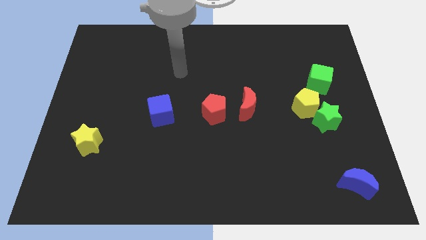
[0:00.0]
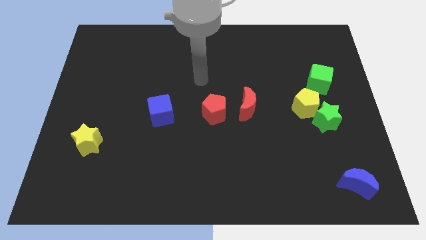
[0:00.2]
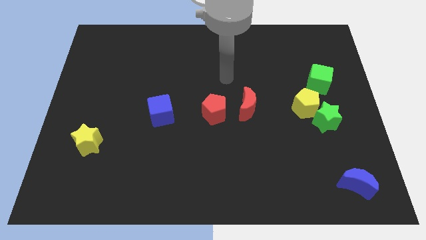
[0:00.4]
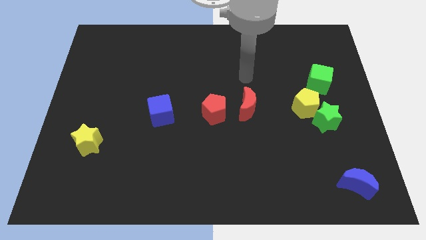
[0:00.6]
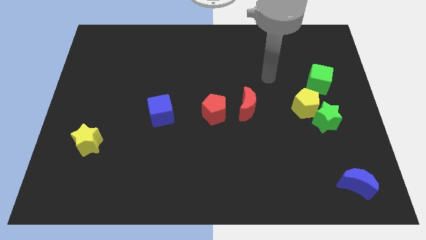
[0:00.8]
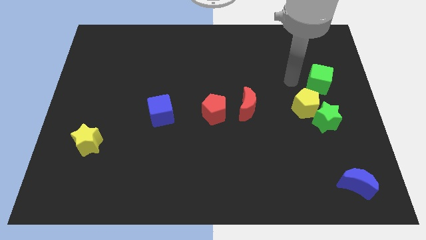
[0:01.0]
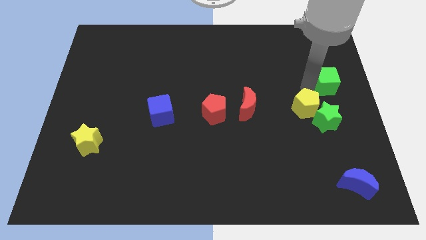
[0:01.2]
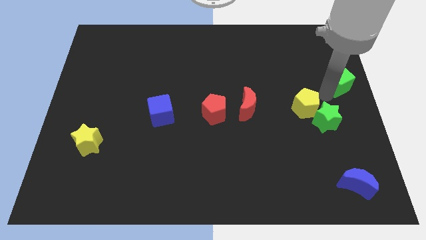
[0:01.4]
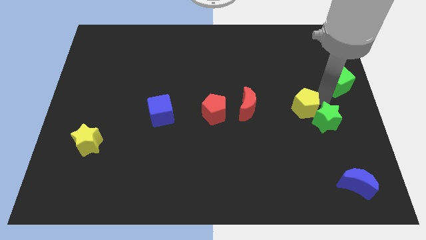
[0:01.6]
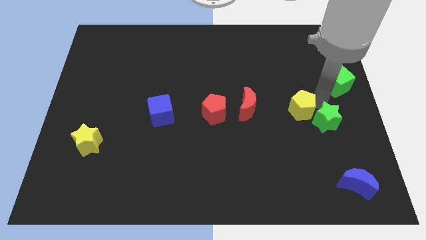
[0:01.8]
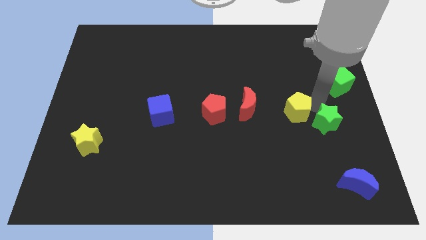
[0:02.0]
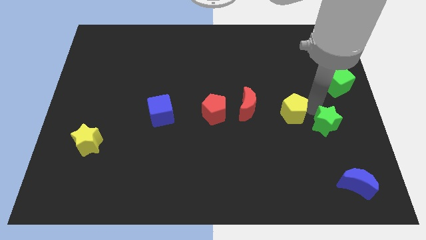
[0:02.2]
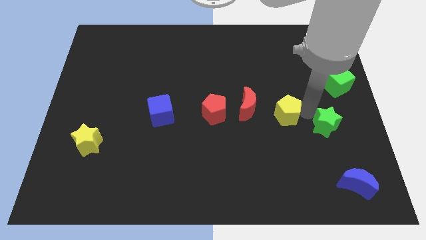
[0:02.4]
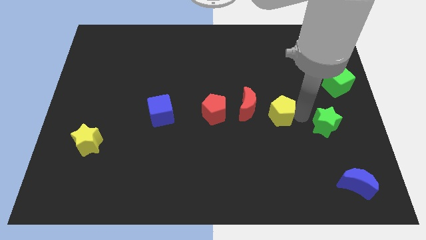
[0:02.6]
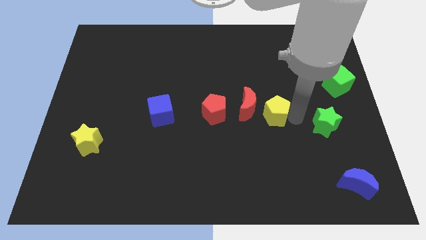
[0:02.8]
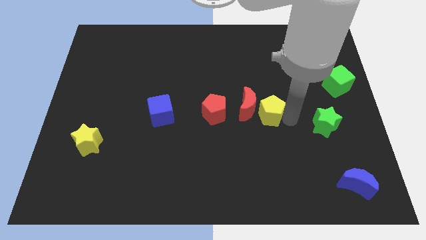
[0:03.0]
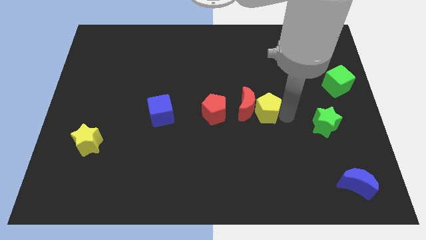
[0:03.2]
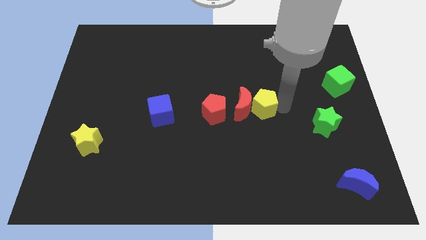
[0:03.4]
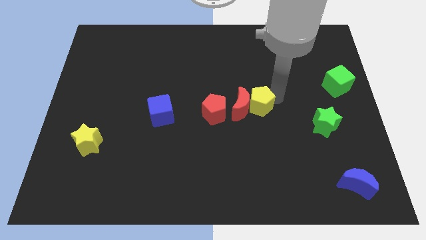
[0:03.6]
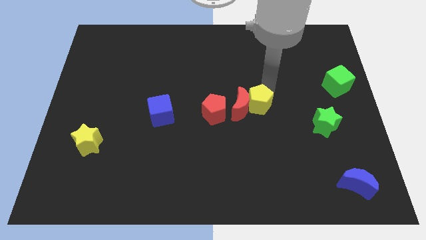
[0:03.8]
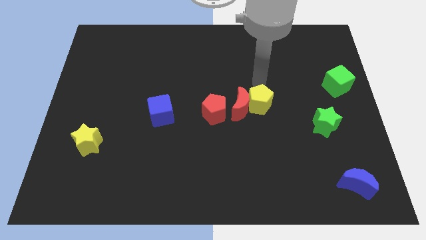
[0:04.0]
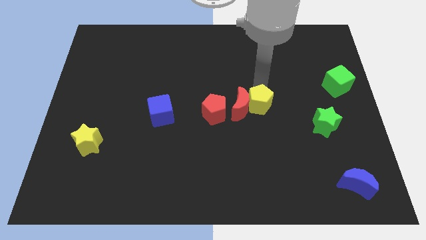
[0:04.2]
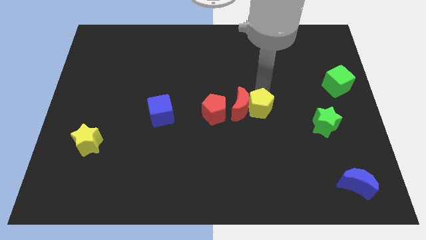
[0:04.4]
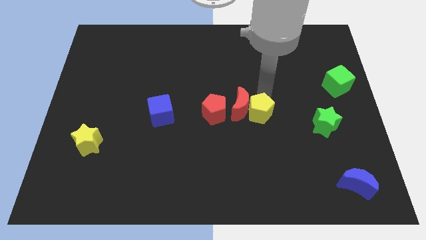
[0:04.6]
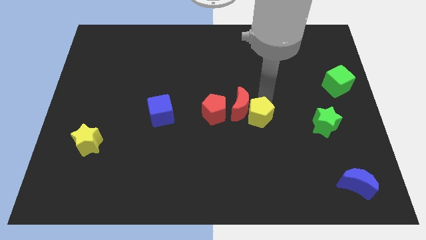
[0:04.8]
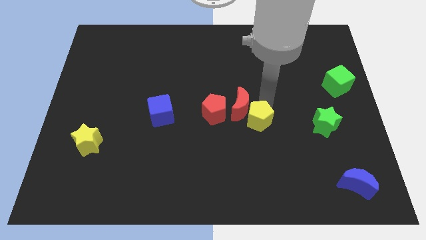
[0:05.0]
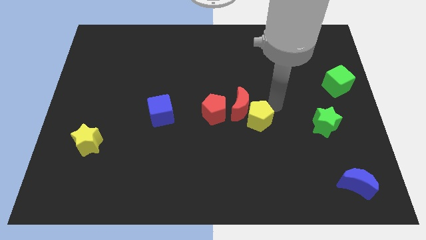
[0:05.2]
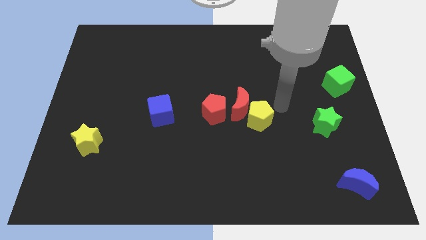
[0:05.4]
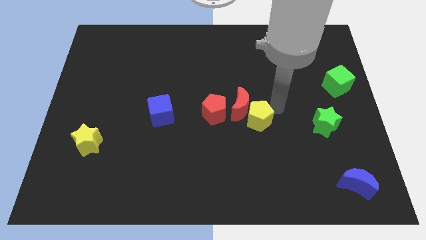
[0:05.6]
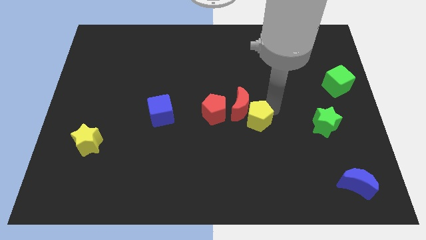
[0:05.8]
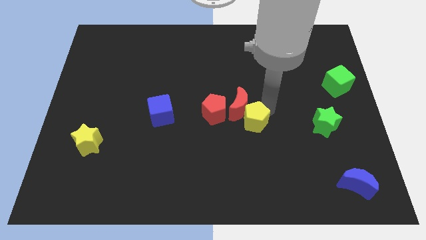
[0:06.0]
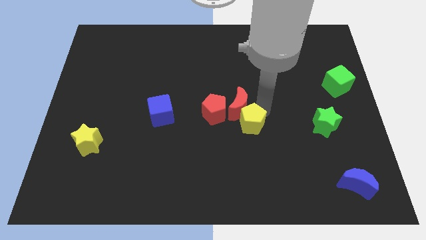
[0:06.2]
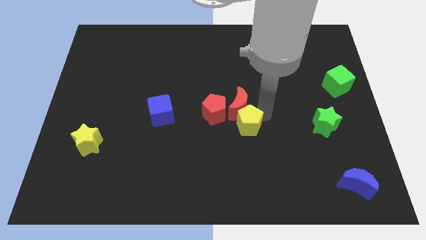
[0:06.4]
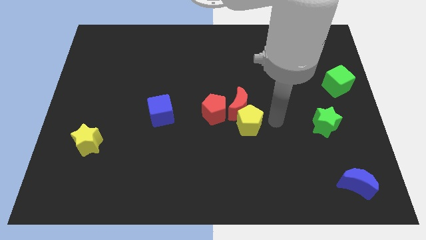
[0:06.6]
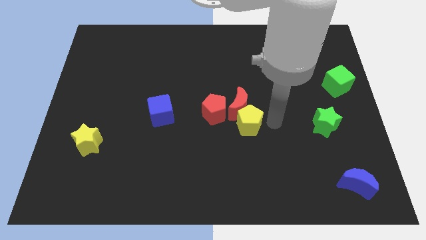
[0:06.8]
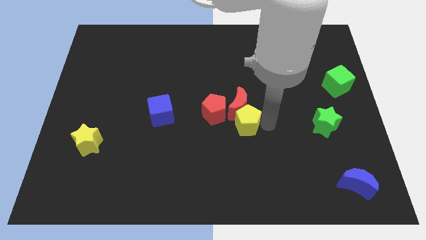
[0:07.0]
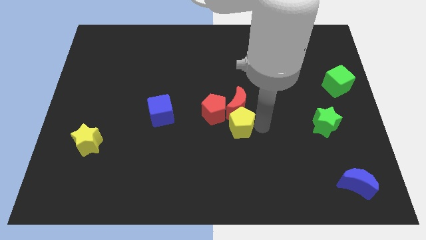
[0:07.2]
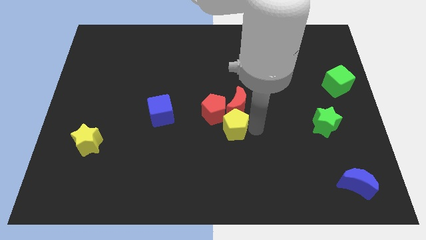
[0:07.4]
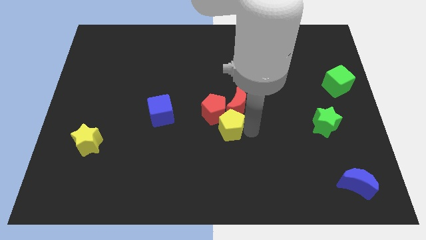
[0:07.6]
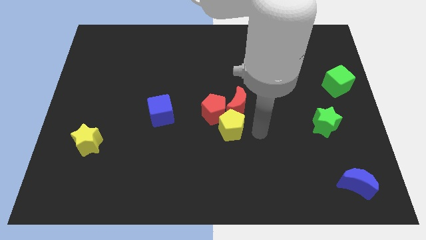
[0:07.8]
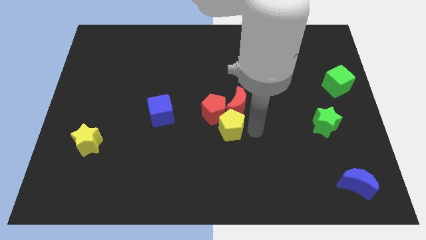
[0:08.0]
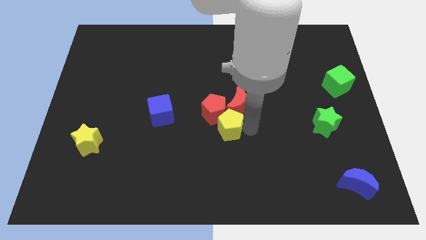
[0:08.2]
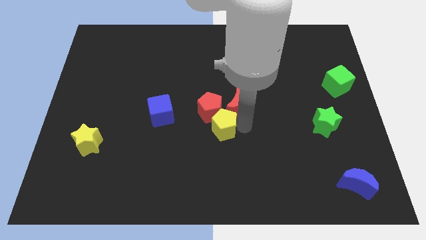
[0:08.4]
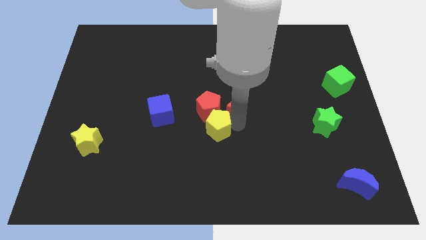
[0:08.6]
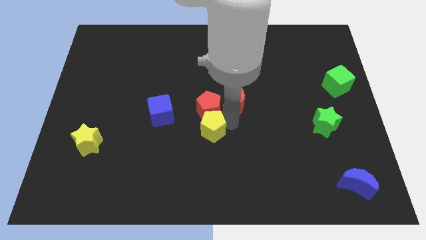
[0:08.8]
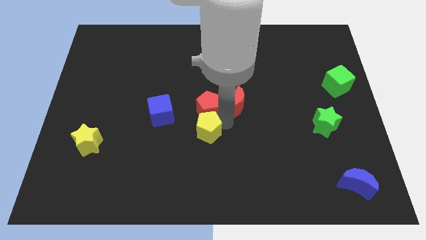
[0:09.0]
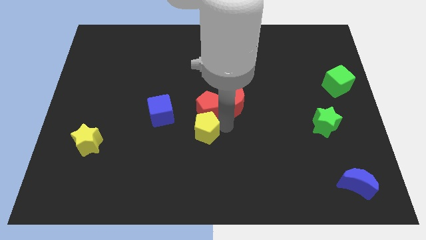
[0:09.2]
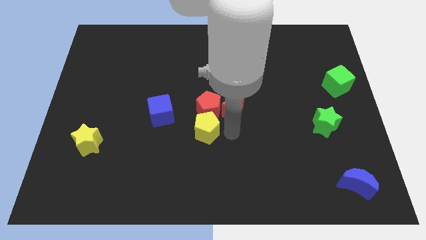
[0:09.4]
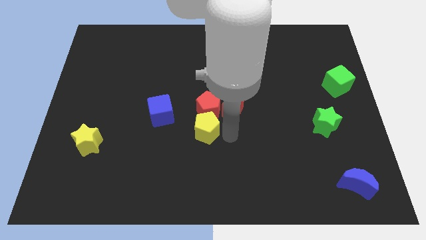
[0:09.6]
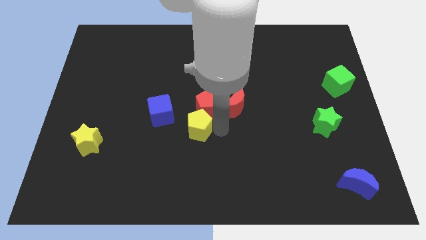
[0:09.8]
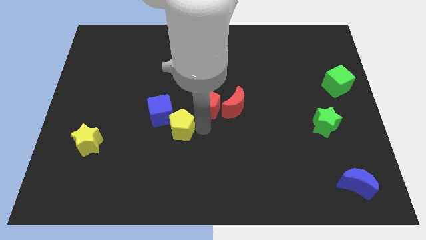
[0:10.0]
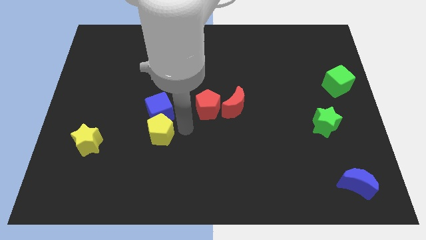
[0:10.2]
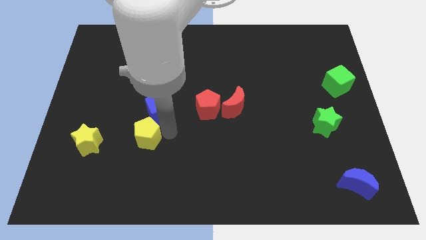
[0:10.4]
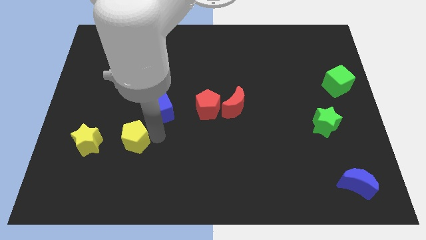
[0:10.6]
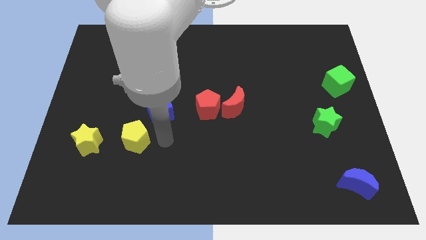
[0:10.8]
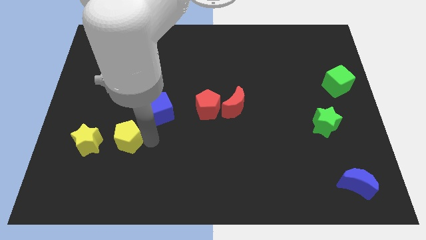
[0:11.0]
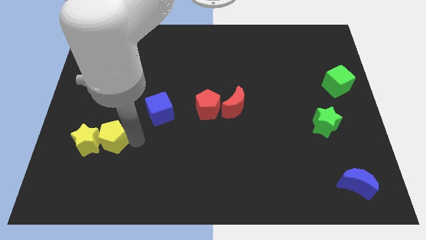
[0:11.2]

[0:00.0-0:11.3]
put the yellow pentagon next to the yellow star

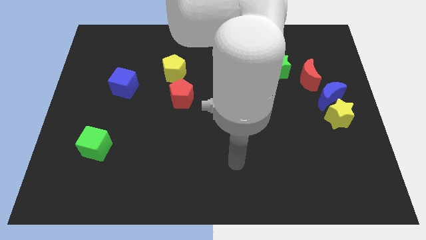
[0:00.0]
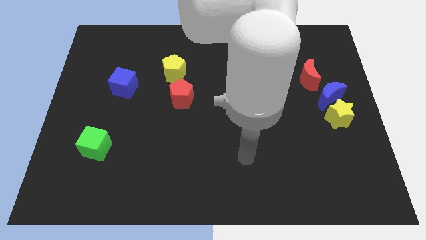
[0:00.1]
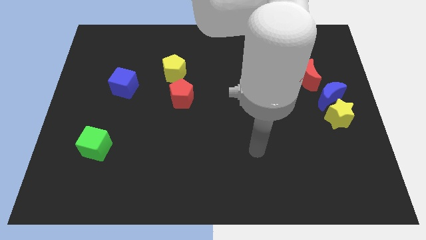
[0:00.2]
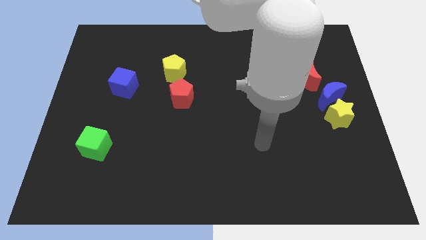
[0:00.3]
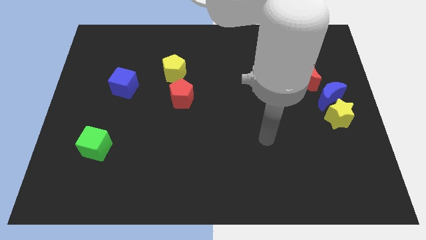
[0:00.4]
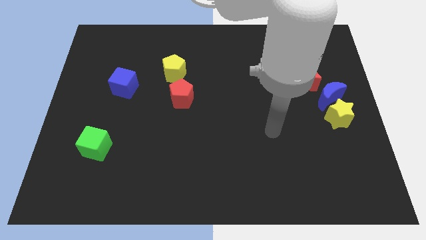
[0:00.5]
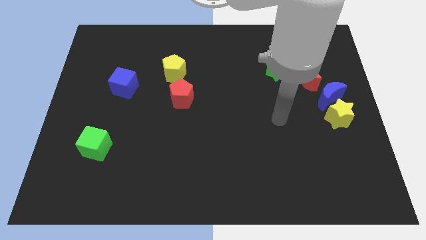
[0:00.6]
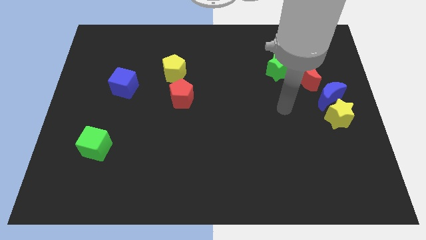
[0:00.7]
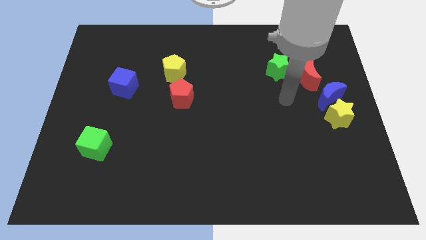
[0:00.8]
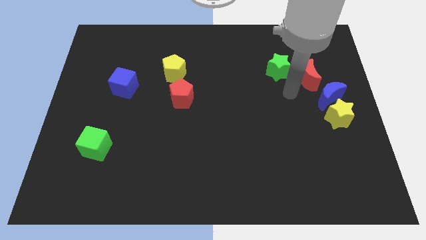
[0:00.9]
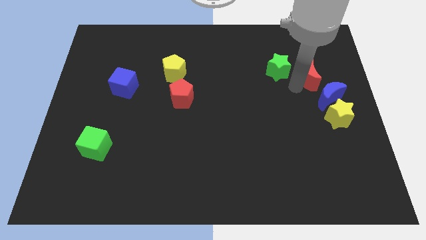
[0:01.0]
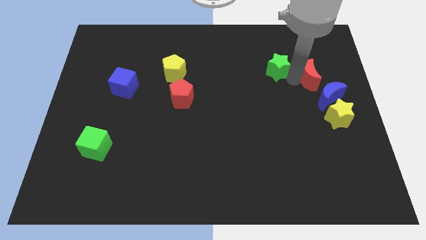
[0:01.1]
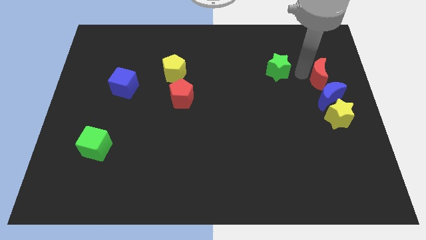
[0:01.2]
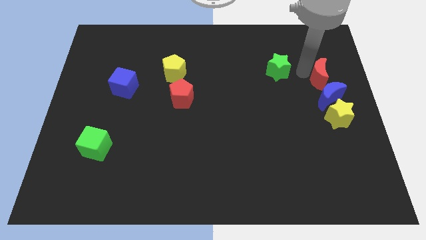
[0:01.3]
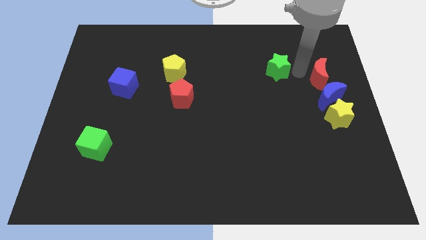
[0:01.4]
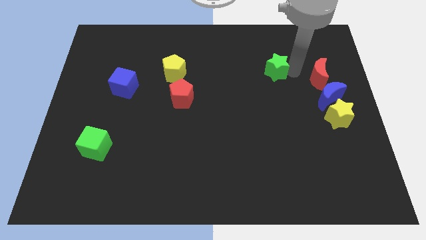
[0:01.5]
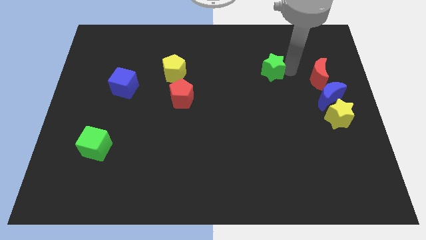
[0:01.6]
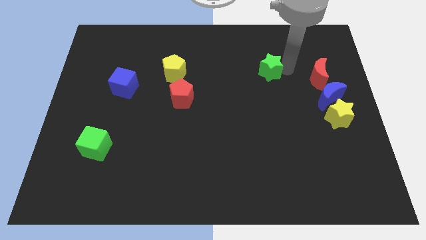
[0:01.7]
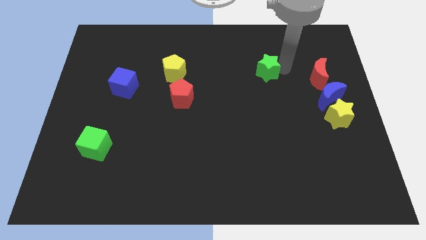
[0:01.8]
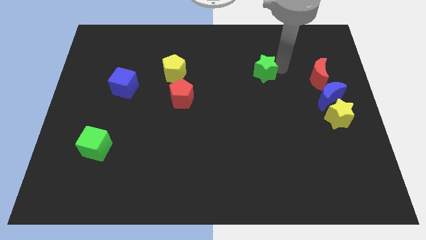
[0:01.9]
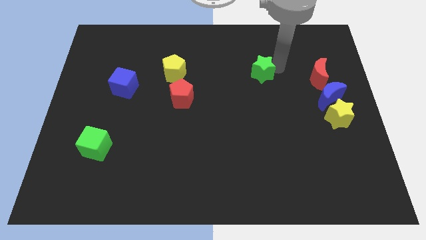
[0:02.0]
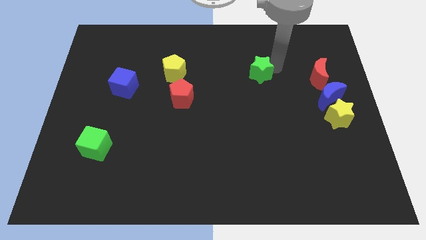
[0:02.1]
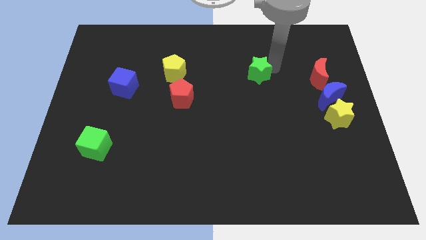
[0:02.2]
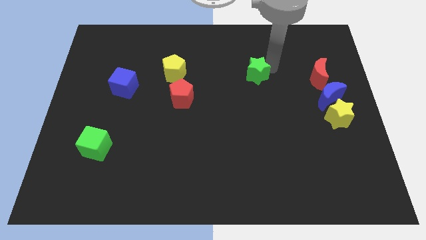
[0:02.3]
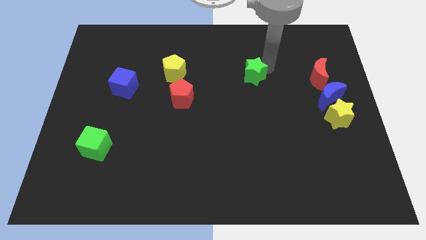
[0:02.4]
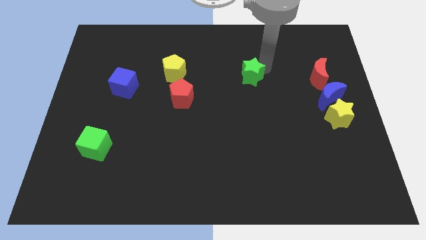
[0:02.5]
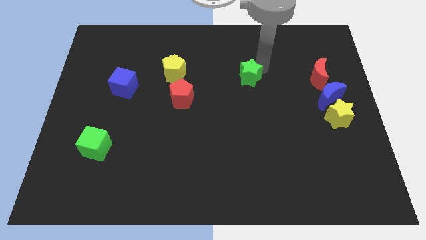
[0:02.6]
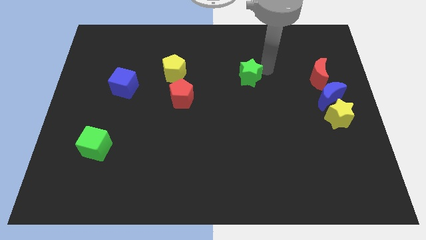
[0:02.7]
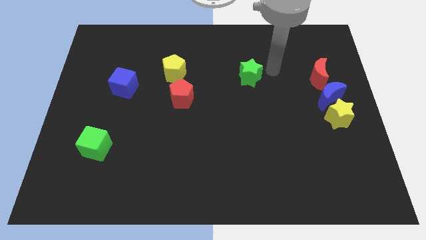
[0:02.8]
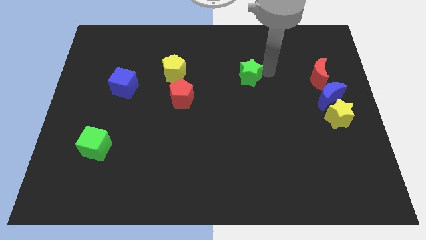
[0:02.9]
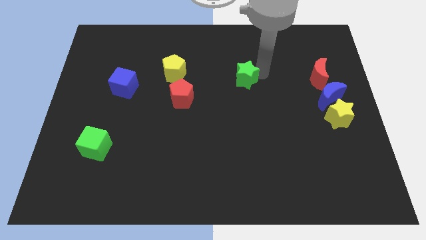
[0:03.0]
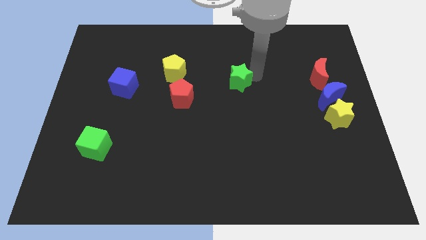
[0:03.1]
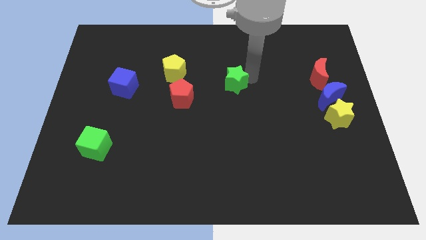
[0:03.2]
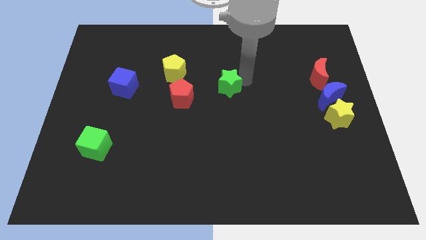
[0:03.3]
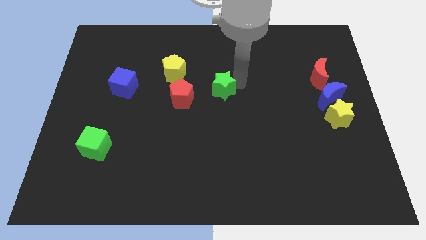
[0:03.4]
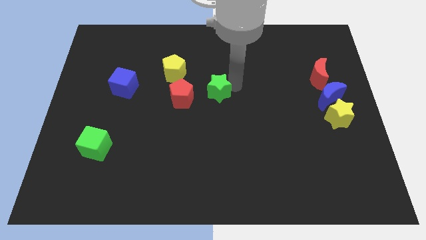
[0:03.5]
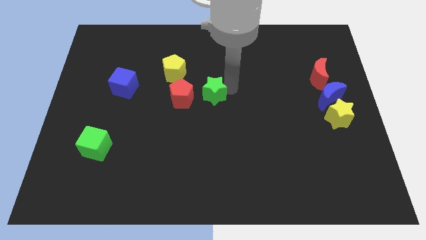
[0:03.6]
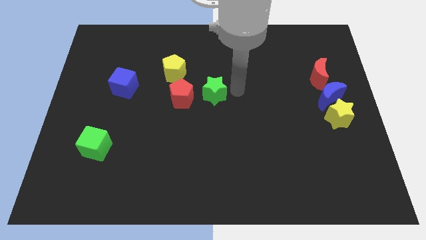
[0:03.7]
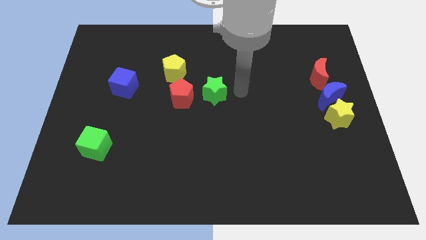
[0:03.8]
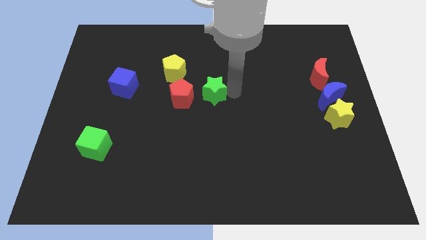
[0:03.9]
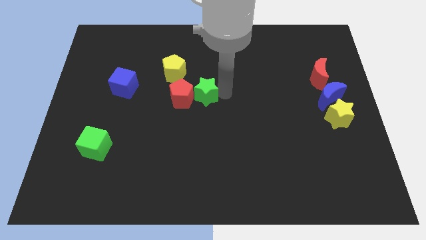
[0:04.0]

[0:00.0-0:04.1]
put the green star to the red pentagon
